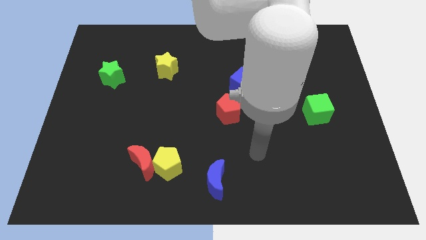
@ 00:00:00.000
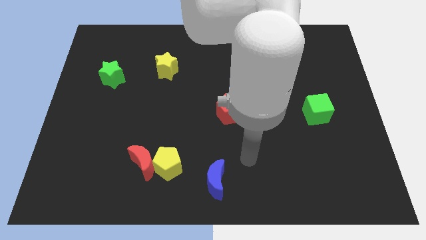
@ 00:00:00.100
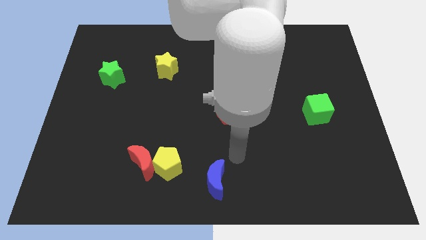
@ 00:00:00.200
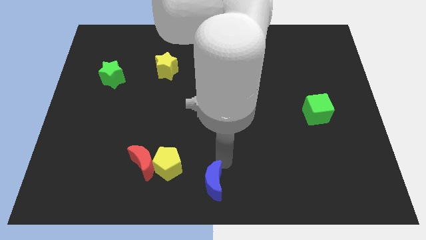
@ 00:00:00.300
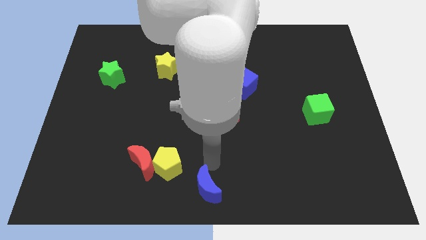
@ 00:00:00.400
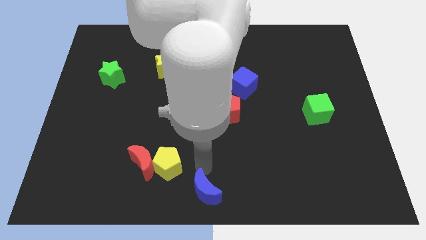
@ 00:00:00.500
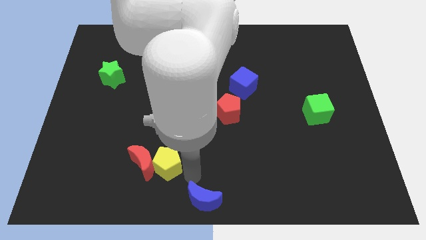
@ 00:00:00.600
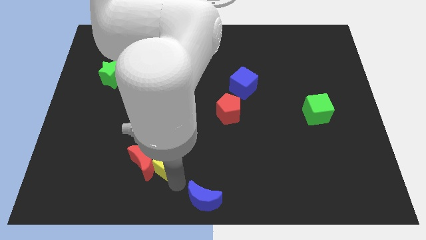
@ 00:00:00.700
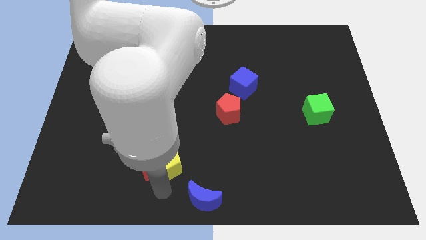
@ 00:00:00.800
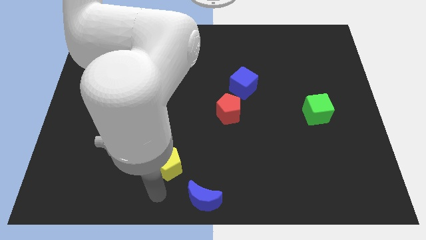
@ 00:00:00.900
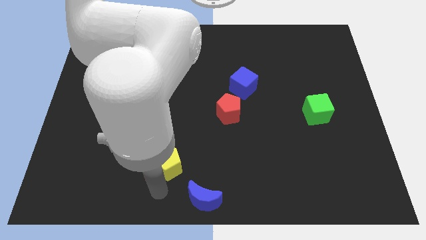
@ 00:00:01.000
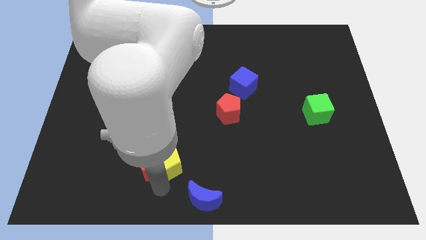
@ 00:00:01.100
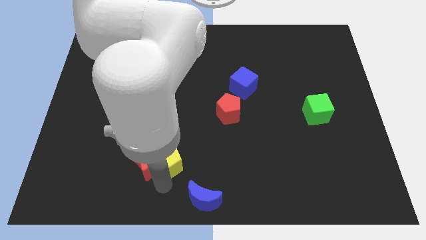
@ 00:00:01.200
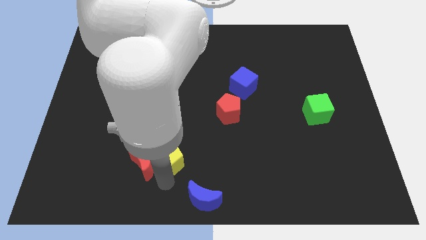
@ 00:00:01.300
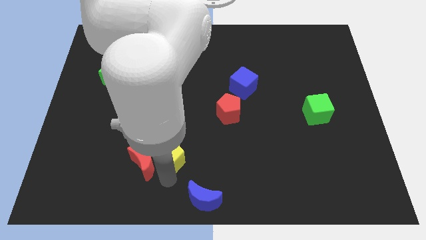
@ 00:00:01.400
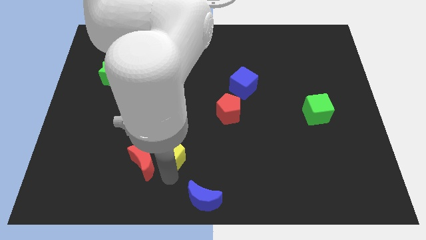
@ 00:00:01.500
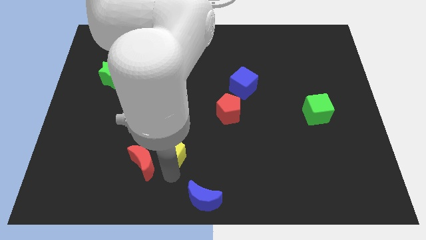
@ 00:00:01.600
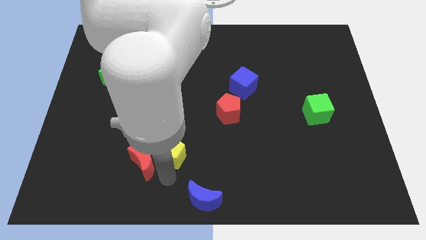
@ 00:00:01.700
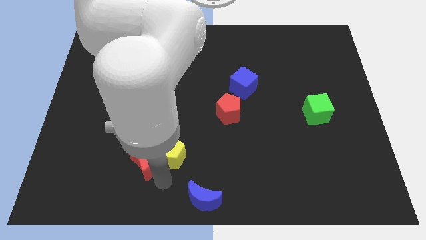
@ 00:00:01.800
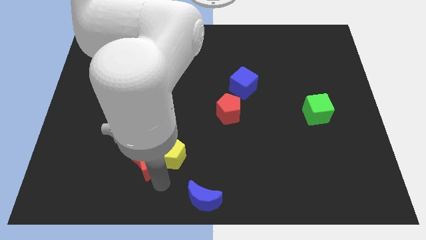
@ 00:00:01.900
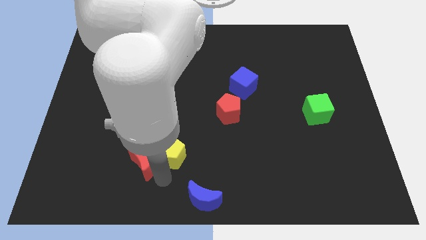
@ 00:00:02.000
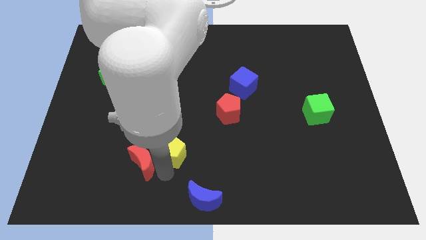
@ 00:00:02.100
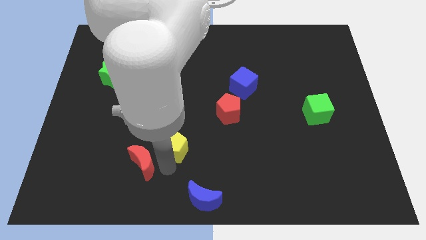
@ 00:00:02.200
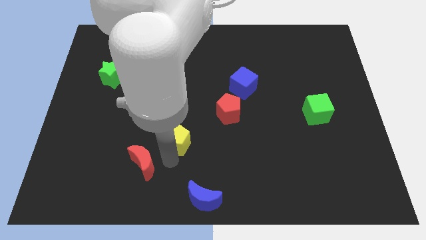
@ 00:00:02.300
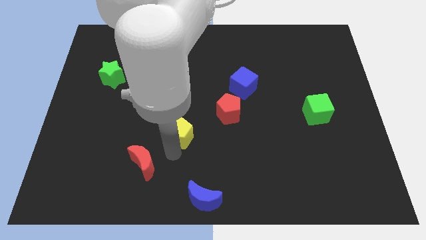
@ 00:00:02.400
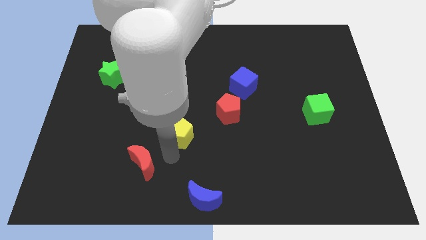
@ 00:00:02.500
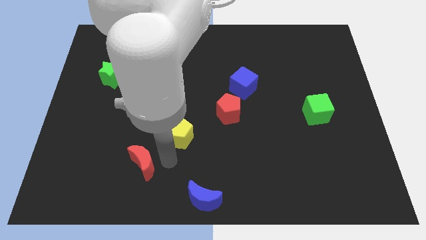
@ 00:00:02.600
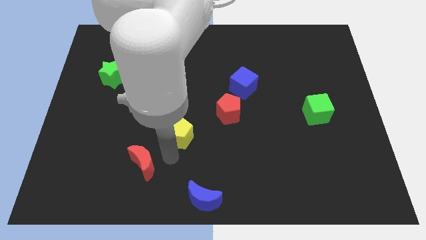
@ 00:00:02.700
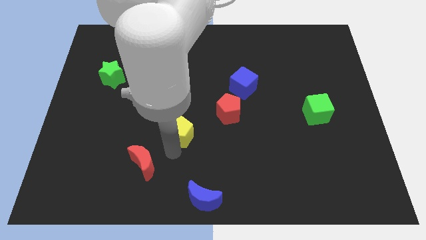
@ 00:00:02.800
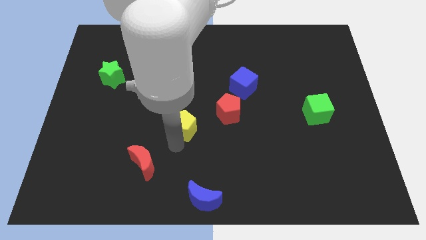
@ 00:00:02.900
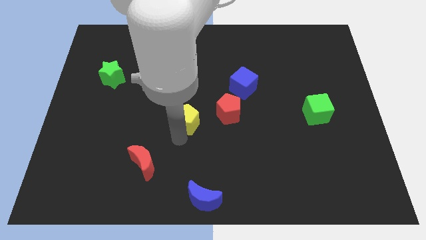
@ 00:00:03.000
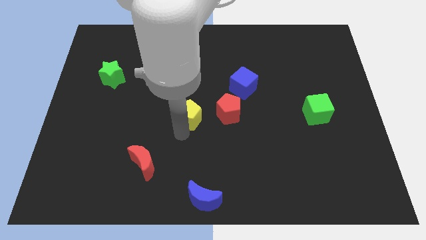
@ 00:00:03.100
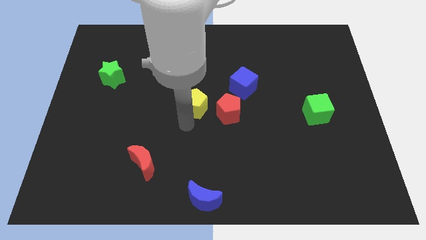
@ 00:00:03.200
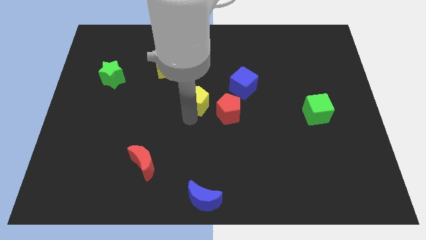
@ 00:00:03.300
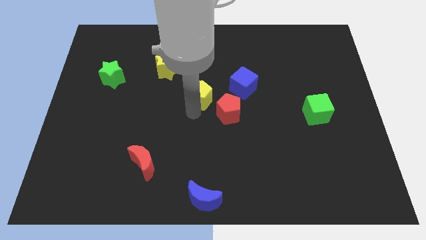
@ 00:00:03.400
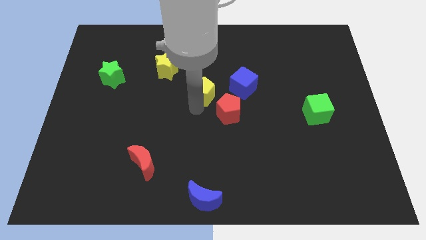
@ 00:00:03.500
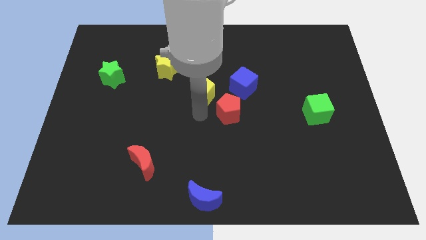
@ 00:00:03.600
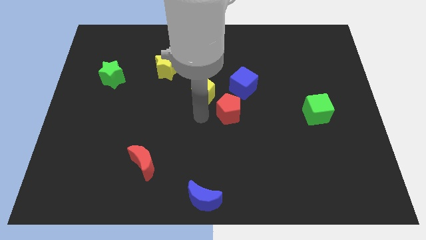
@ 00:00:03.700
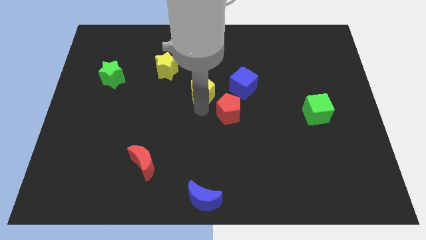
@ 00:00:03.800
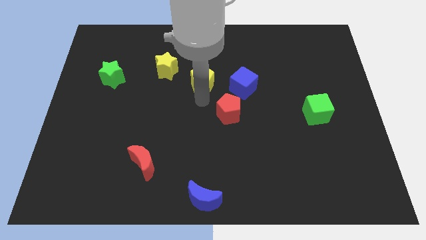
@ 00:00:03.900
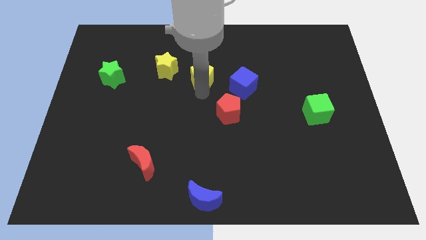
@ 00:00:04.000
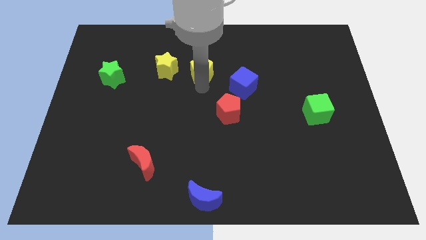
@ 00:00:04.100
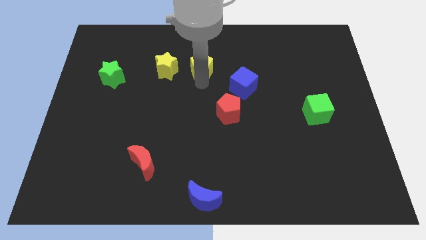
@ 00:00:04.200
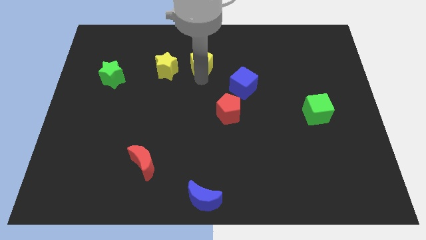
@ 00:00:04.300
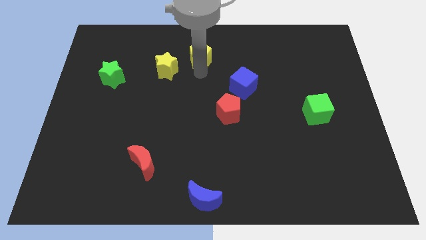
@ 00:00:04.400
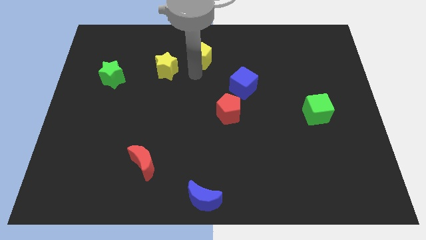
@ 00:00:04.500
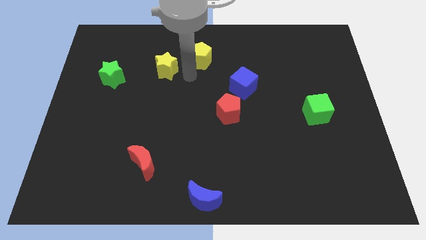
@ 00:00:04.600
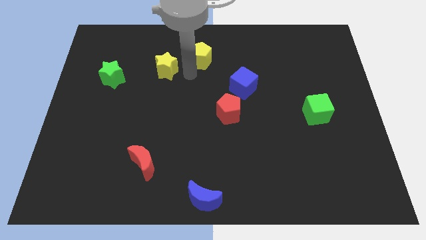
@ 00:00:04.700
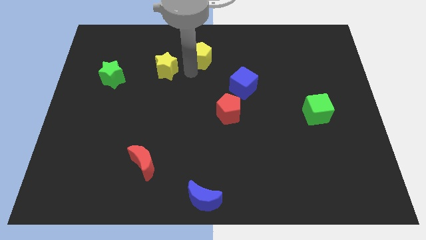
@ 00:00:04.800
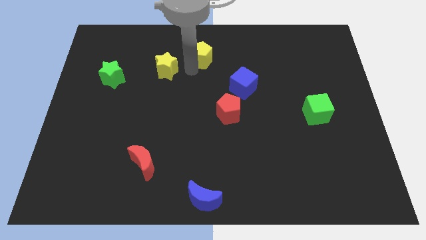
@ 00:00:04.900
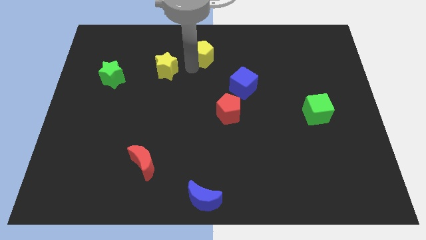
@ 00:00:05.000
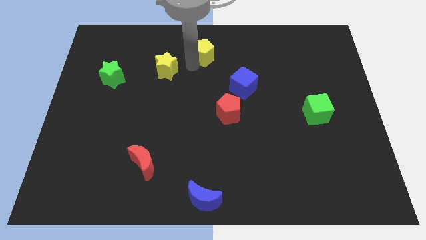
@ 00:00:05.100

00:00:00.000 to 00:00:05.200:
put the yellow pentagon to the towards your base
